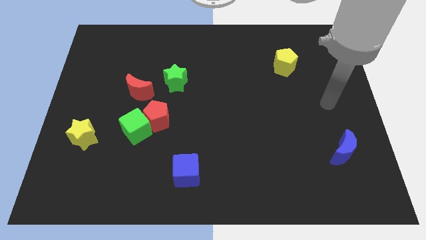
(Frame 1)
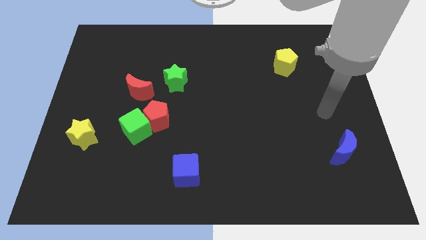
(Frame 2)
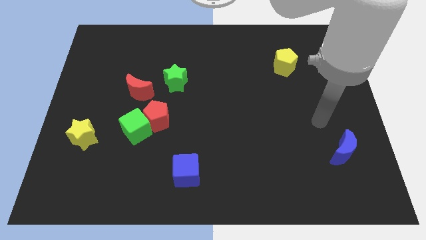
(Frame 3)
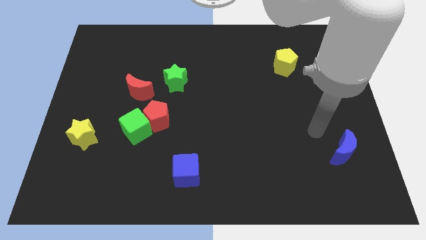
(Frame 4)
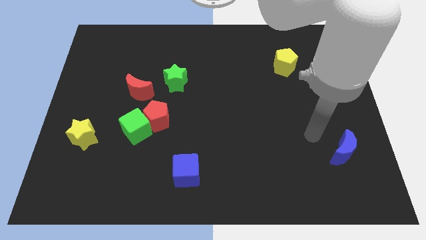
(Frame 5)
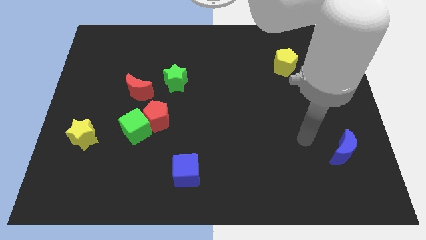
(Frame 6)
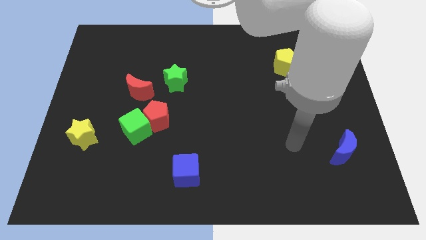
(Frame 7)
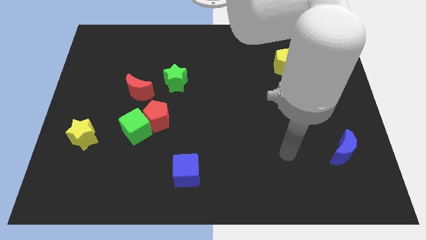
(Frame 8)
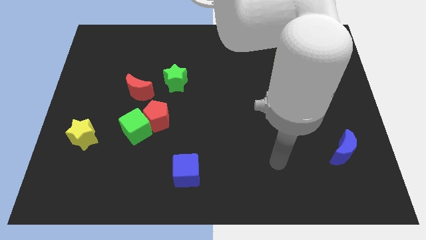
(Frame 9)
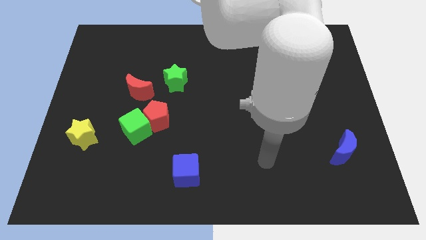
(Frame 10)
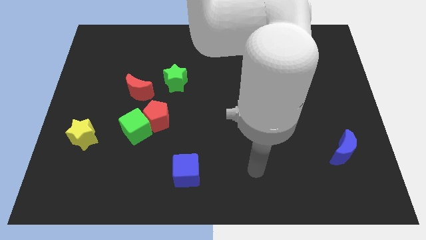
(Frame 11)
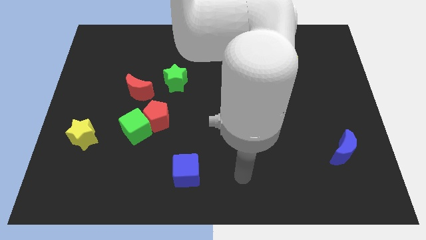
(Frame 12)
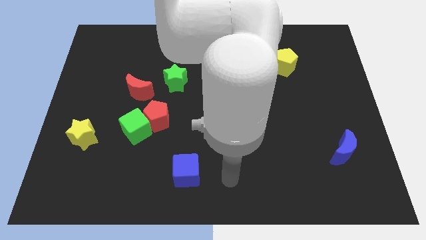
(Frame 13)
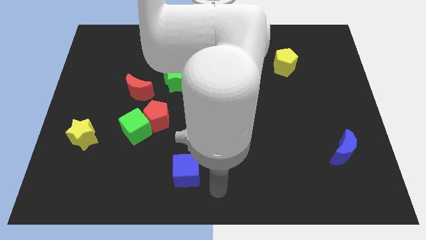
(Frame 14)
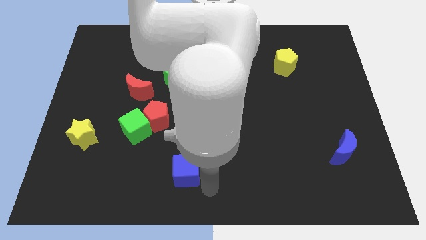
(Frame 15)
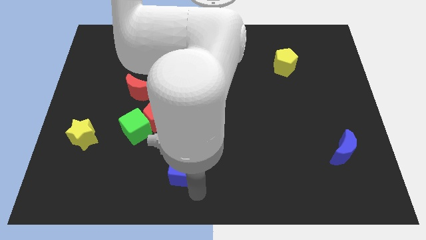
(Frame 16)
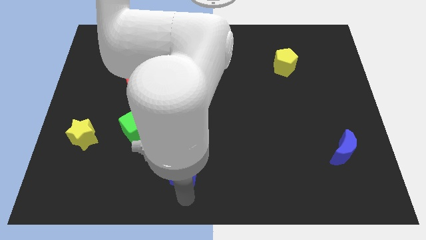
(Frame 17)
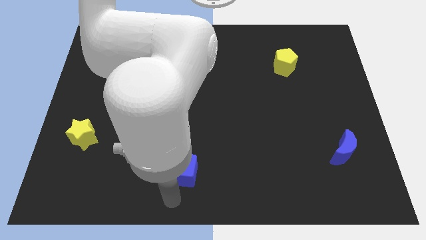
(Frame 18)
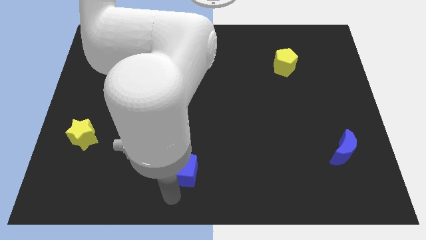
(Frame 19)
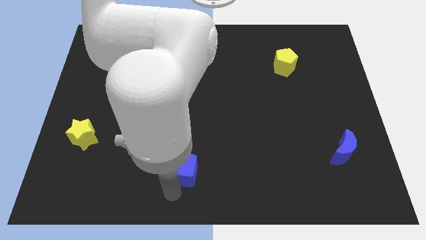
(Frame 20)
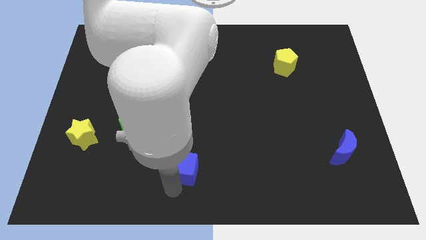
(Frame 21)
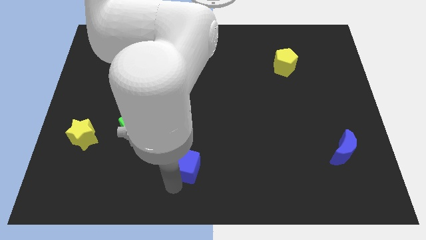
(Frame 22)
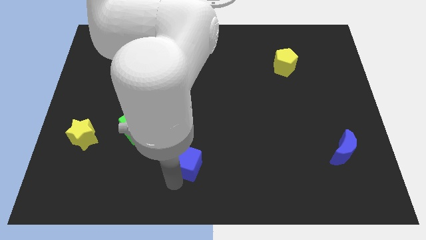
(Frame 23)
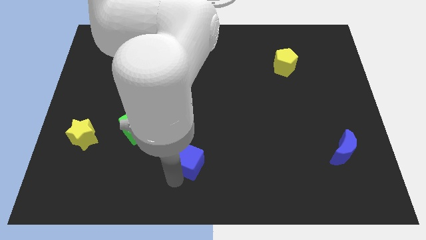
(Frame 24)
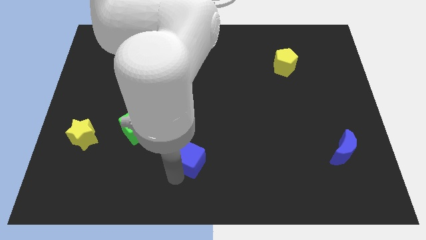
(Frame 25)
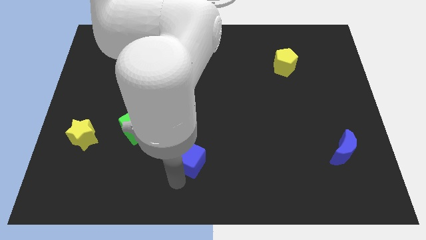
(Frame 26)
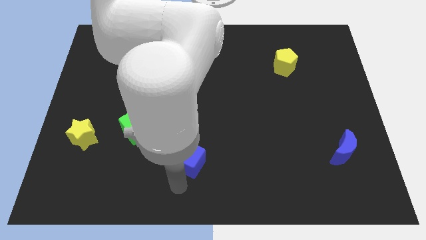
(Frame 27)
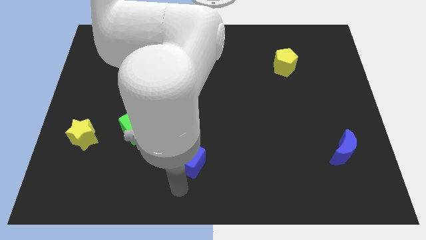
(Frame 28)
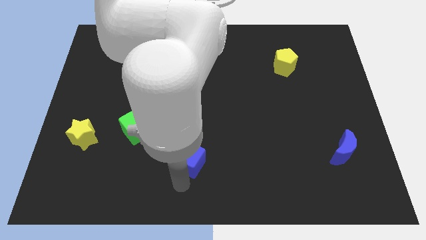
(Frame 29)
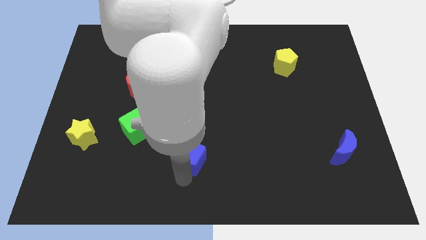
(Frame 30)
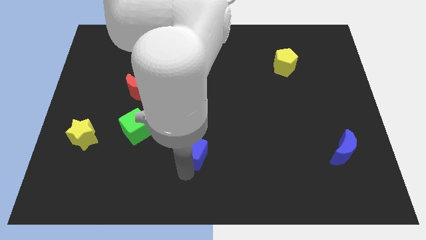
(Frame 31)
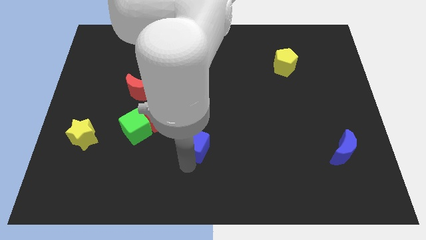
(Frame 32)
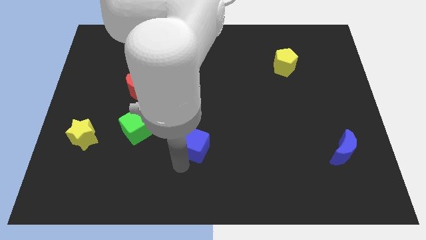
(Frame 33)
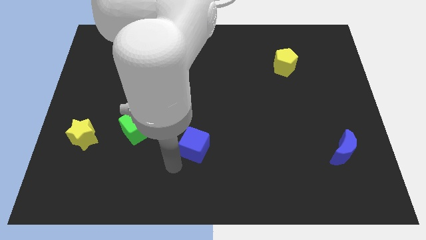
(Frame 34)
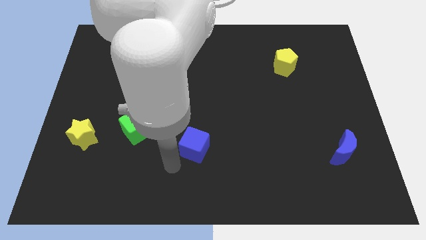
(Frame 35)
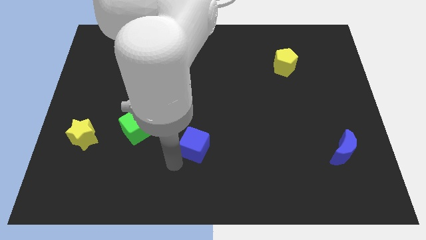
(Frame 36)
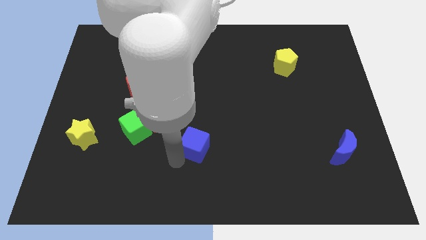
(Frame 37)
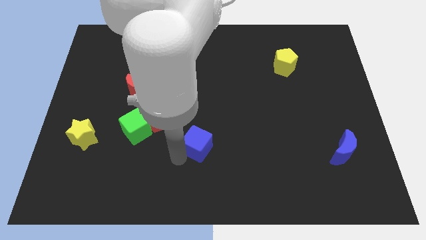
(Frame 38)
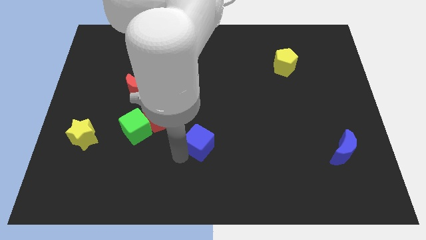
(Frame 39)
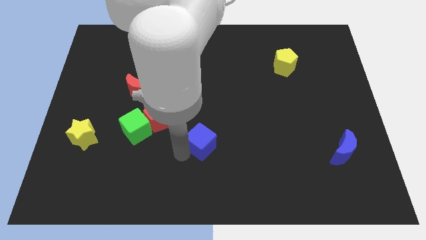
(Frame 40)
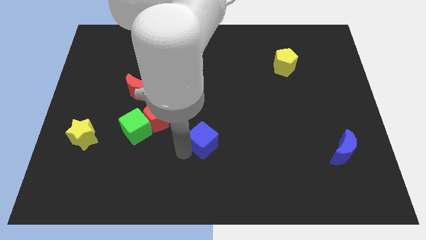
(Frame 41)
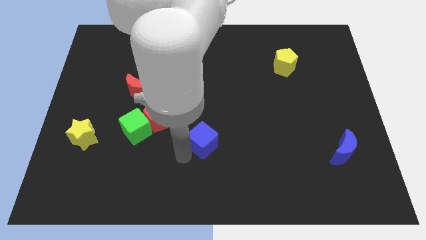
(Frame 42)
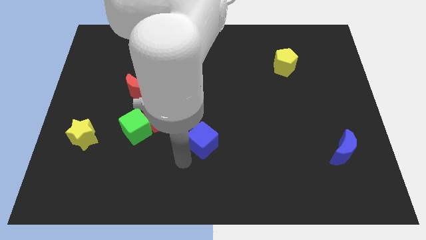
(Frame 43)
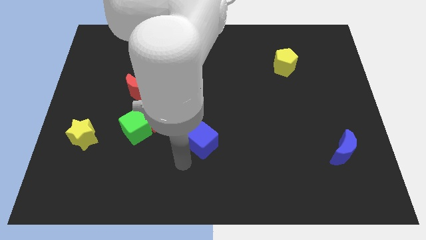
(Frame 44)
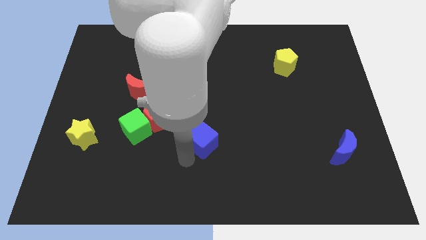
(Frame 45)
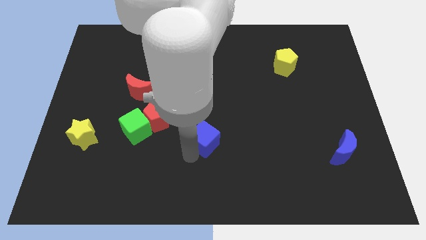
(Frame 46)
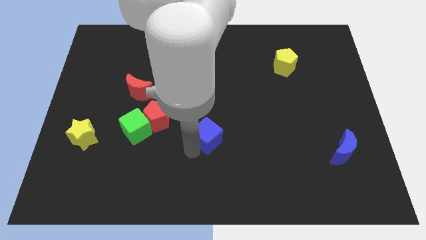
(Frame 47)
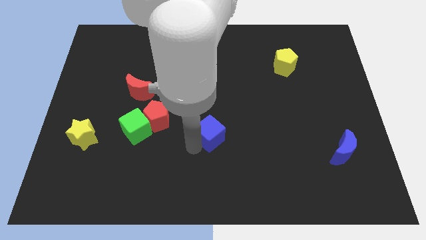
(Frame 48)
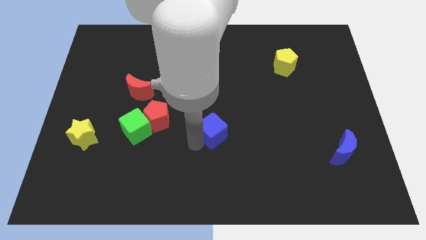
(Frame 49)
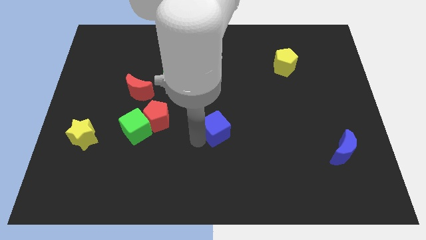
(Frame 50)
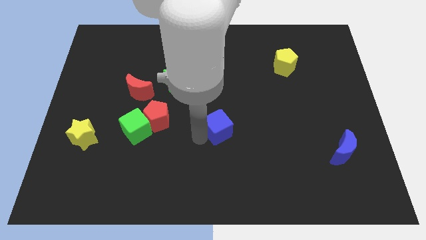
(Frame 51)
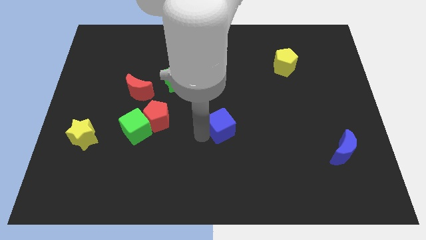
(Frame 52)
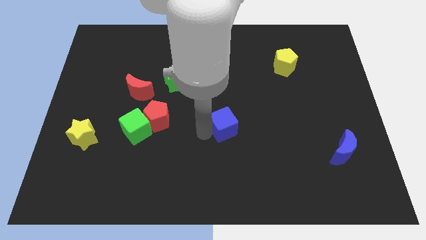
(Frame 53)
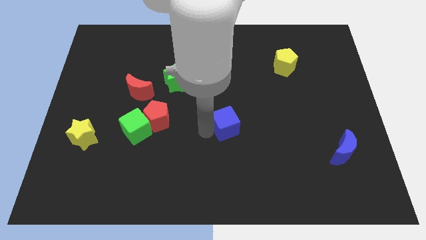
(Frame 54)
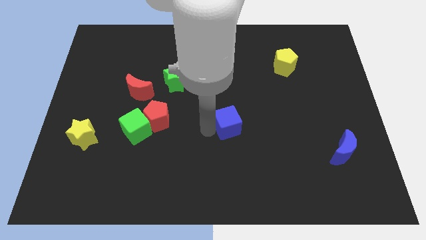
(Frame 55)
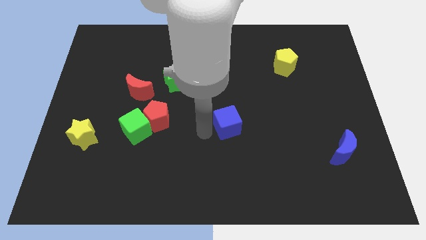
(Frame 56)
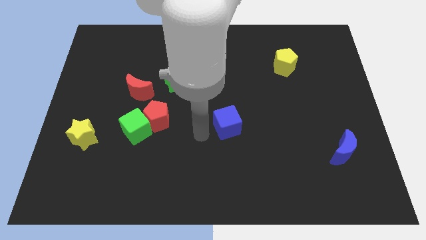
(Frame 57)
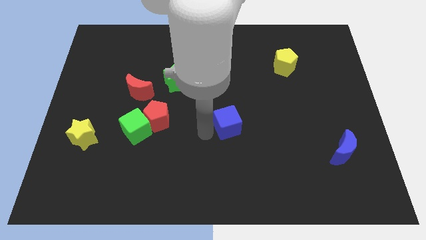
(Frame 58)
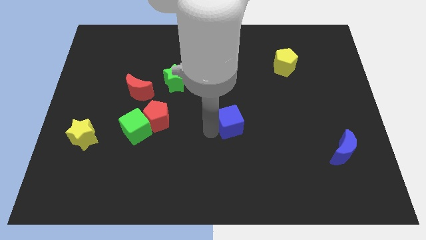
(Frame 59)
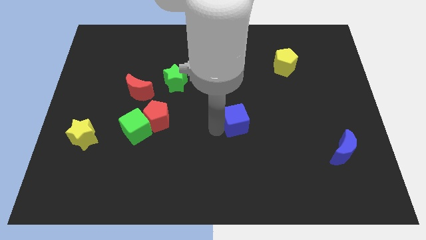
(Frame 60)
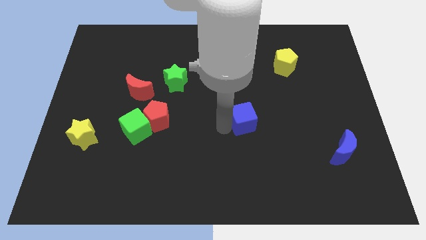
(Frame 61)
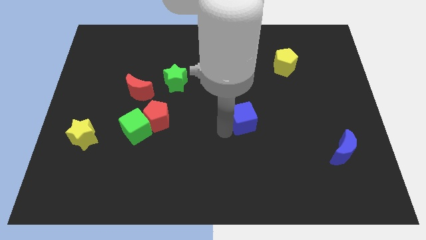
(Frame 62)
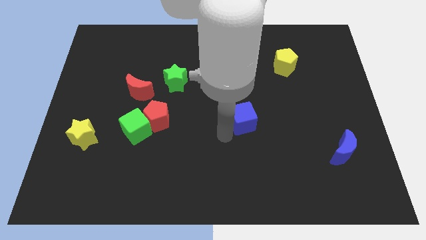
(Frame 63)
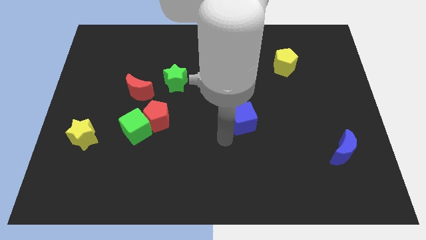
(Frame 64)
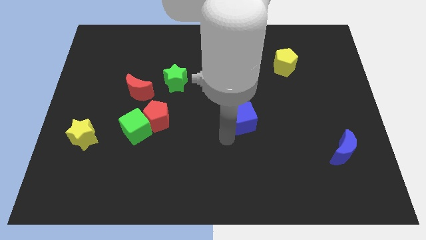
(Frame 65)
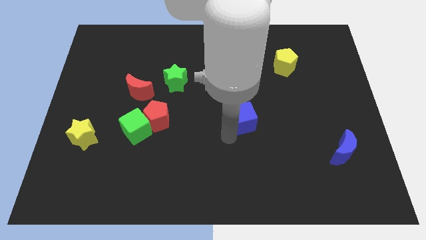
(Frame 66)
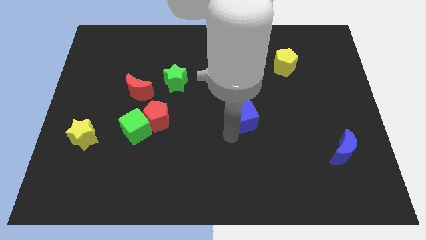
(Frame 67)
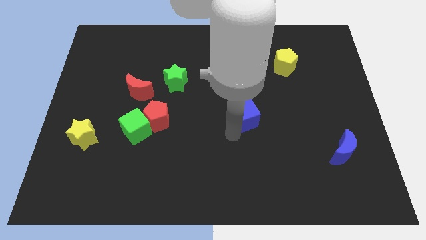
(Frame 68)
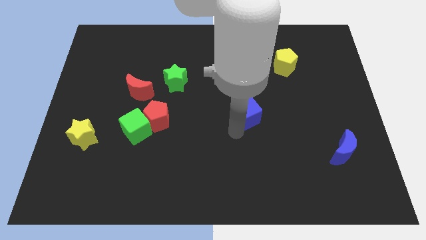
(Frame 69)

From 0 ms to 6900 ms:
slide the blue cube upwards and then right

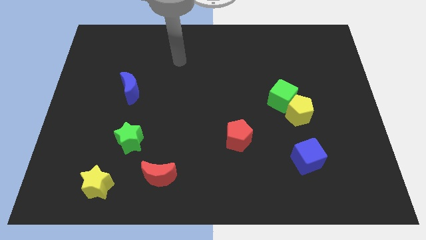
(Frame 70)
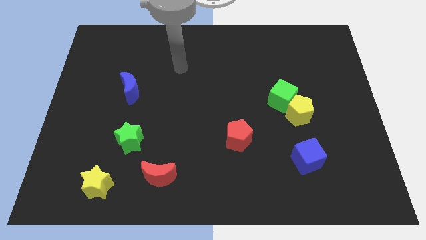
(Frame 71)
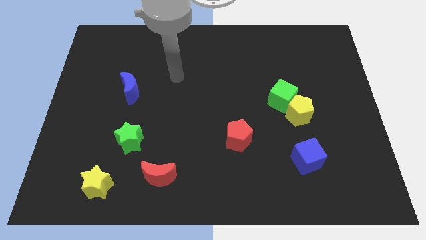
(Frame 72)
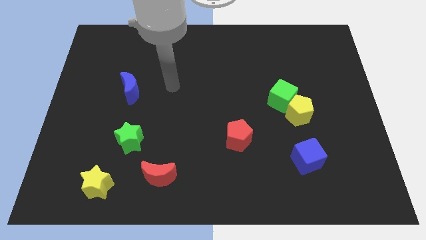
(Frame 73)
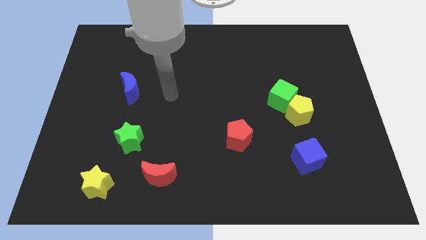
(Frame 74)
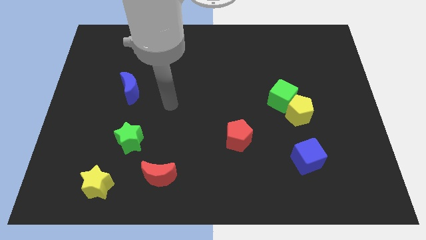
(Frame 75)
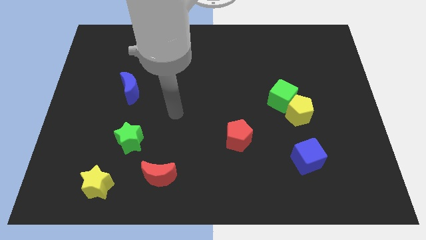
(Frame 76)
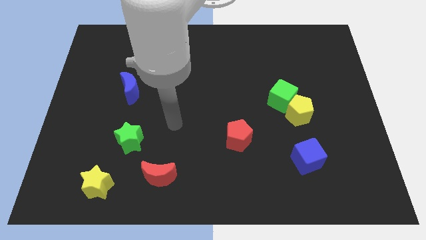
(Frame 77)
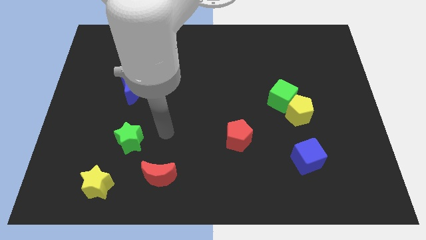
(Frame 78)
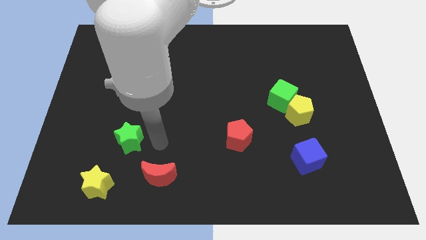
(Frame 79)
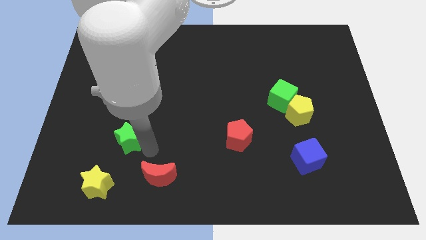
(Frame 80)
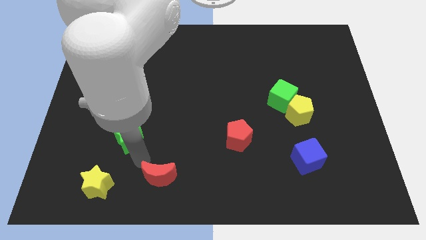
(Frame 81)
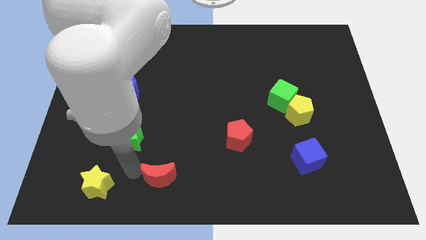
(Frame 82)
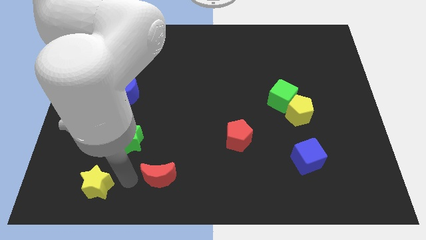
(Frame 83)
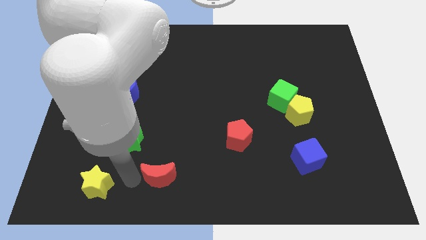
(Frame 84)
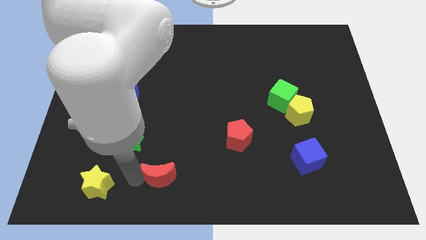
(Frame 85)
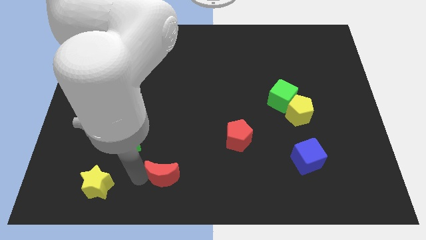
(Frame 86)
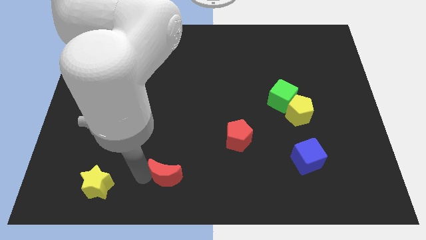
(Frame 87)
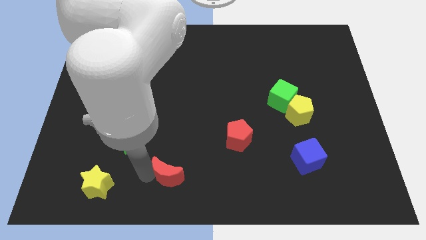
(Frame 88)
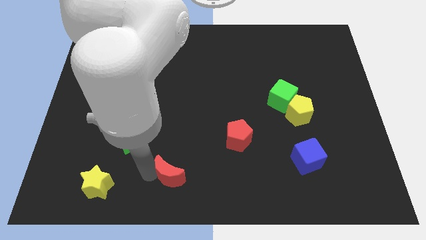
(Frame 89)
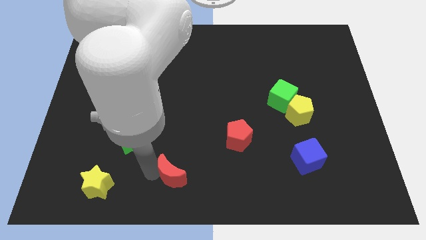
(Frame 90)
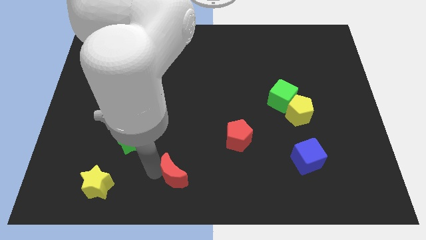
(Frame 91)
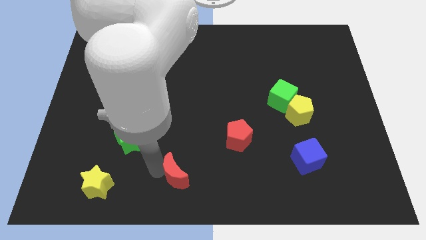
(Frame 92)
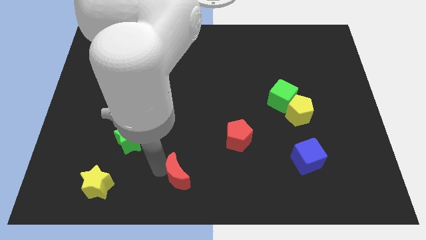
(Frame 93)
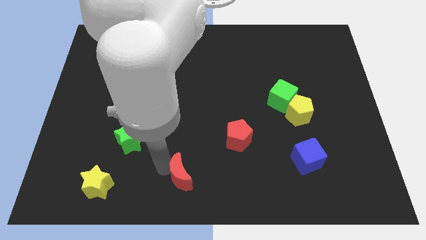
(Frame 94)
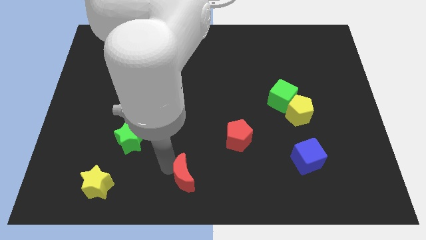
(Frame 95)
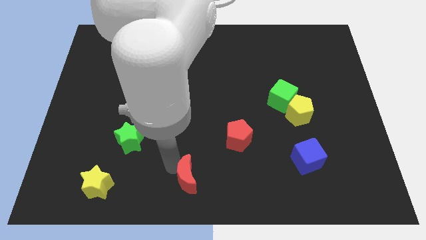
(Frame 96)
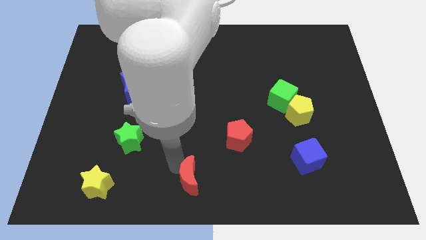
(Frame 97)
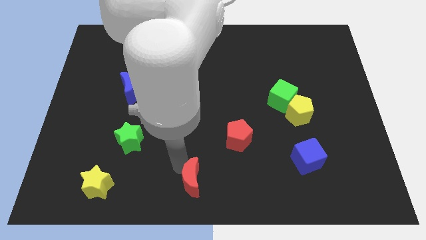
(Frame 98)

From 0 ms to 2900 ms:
slightly push the red moon right
